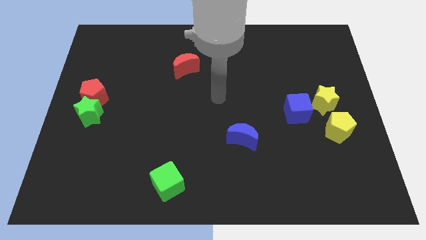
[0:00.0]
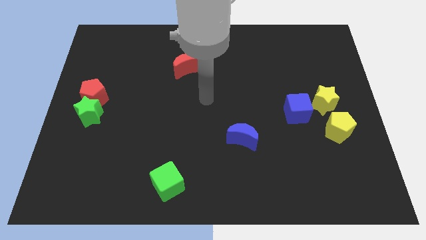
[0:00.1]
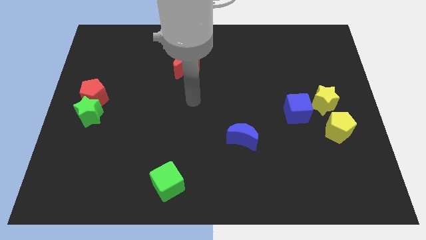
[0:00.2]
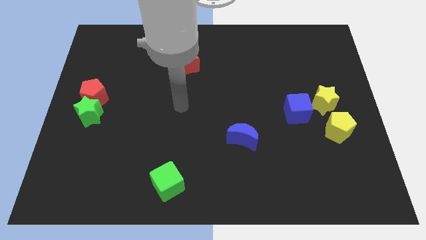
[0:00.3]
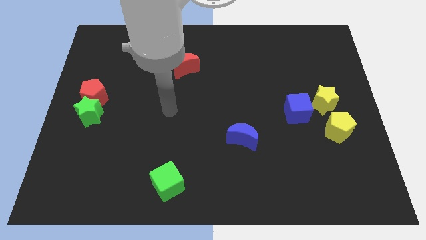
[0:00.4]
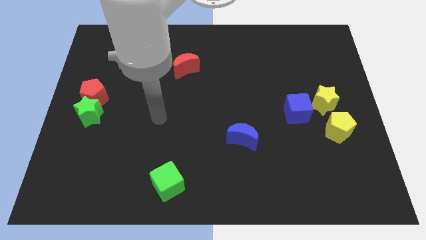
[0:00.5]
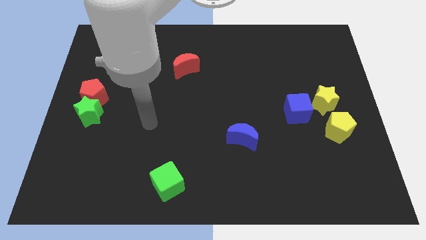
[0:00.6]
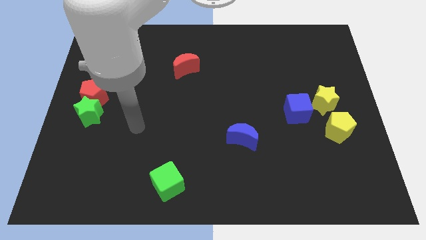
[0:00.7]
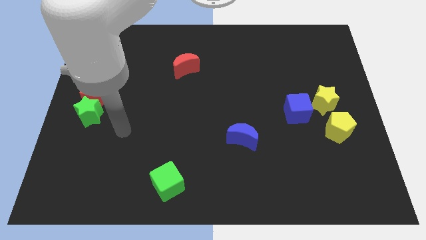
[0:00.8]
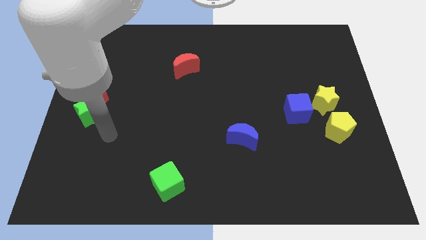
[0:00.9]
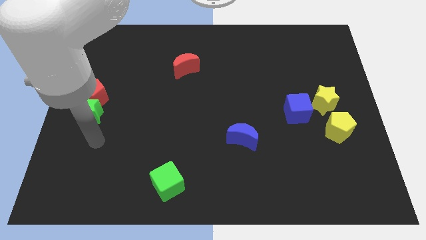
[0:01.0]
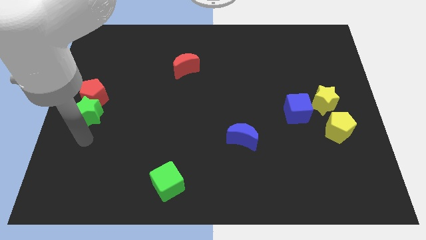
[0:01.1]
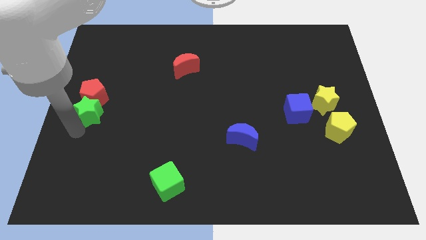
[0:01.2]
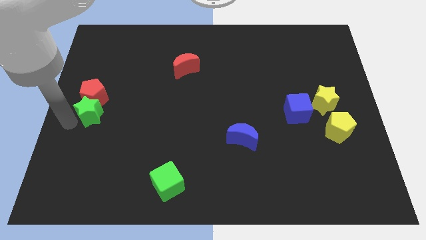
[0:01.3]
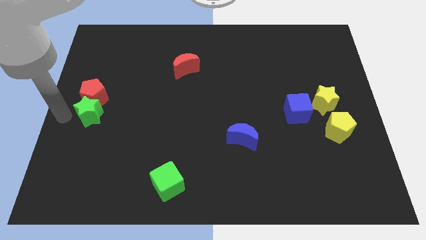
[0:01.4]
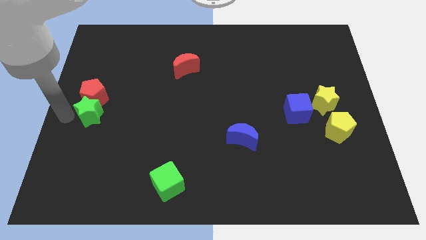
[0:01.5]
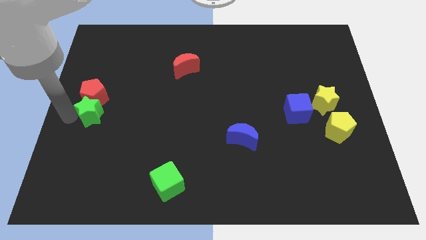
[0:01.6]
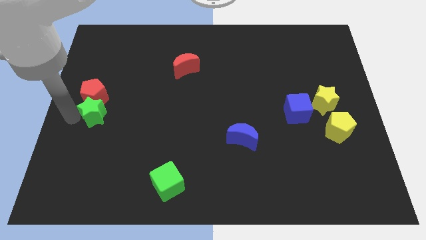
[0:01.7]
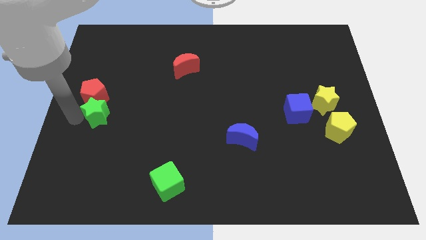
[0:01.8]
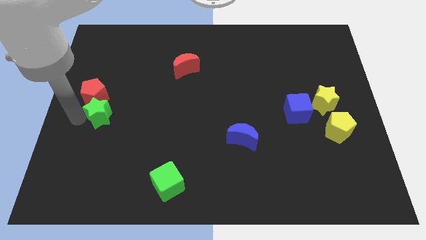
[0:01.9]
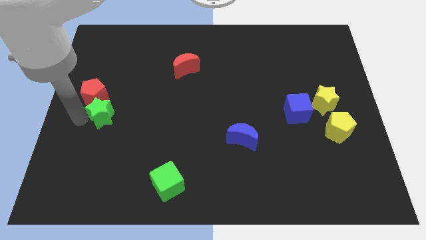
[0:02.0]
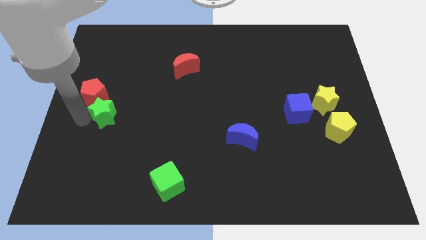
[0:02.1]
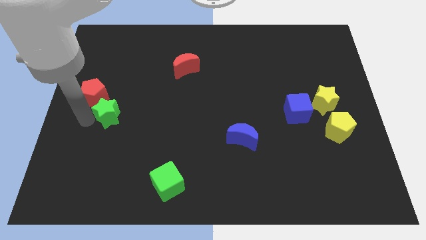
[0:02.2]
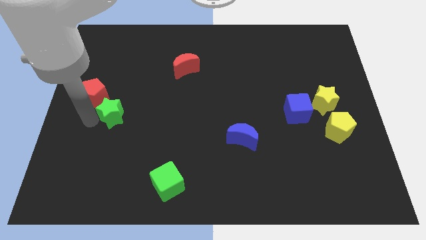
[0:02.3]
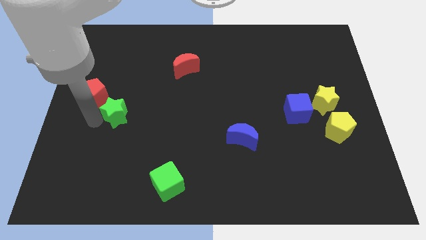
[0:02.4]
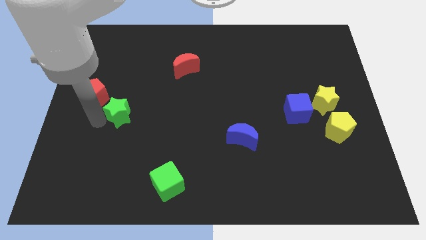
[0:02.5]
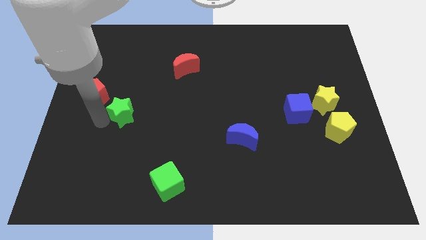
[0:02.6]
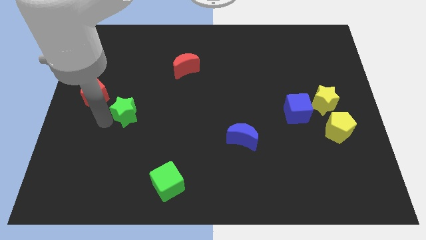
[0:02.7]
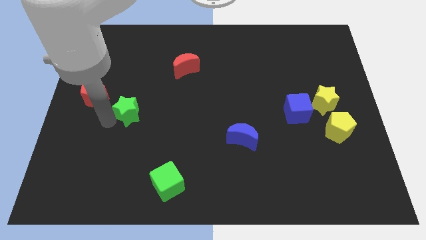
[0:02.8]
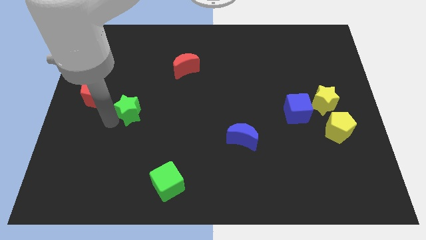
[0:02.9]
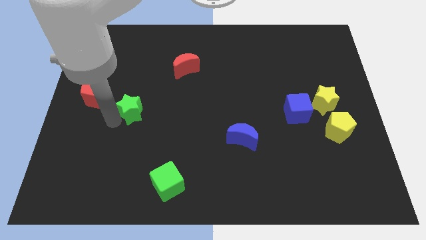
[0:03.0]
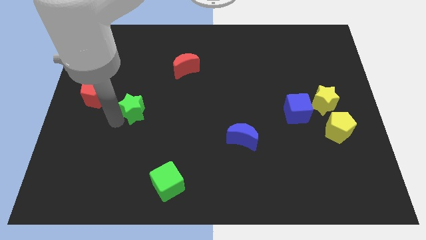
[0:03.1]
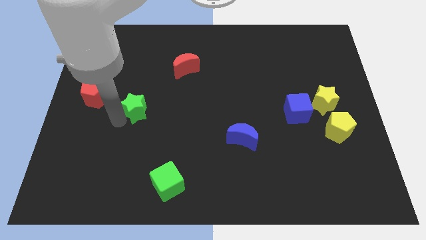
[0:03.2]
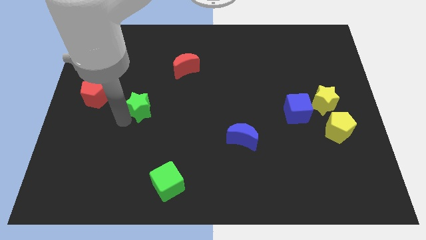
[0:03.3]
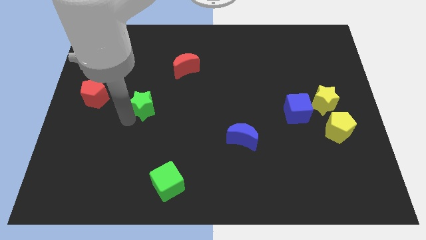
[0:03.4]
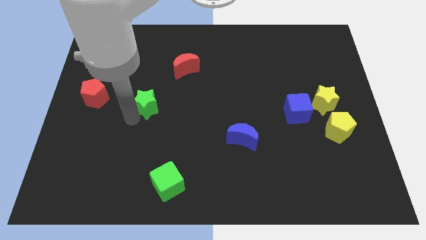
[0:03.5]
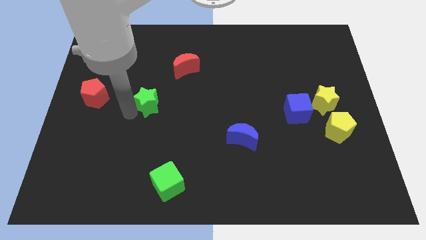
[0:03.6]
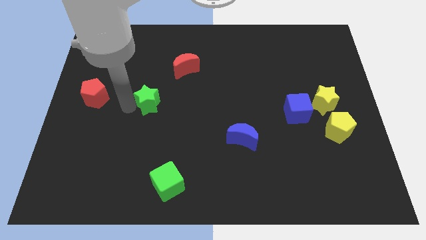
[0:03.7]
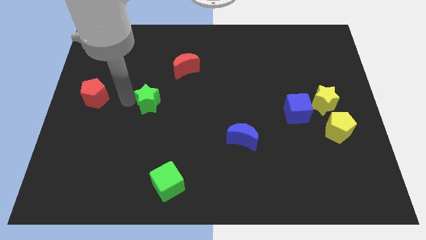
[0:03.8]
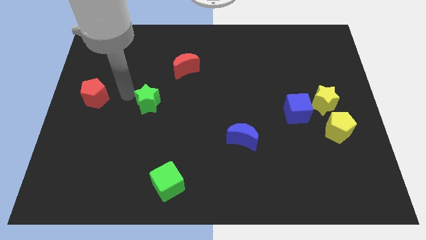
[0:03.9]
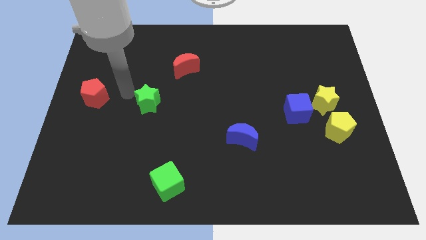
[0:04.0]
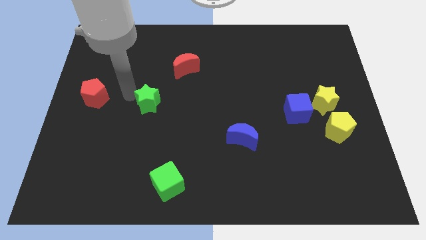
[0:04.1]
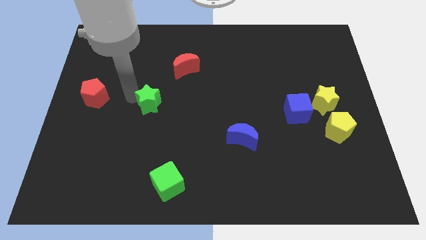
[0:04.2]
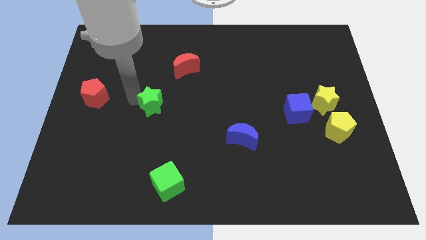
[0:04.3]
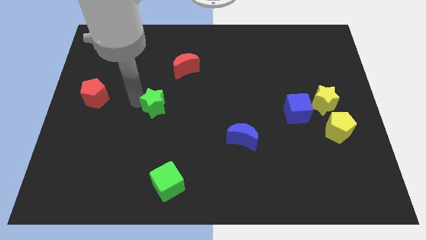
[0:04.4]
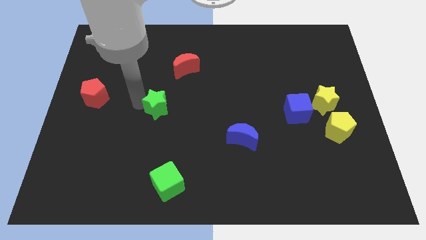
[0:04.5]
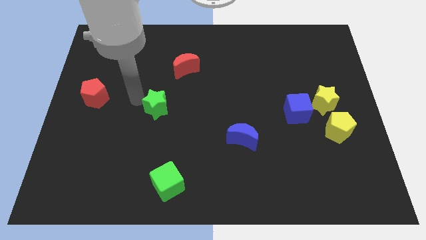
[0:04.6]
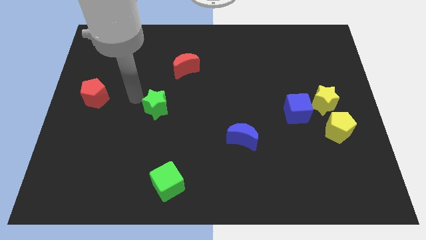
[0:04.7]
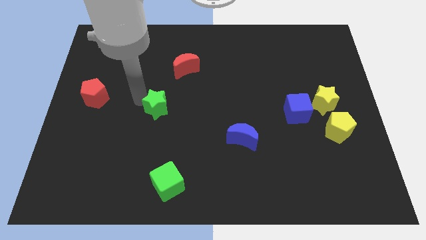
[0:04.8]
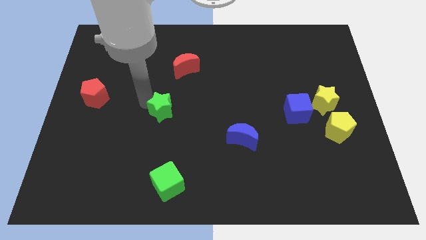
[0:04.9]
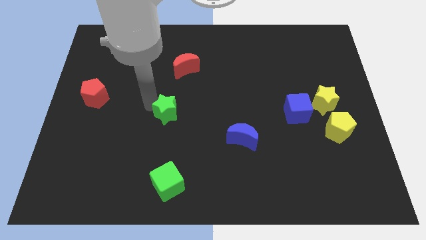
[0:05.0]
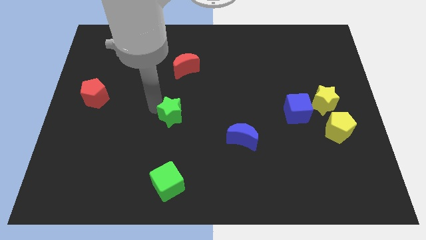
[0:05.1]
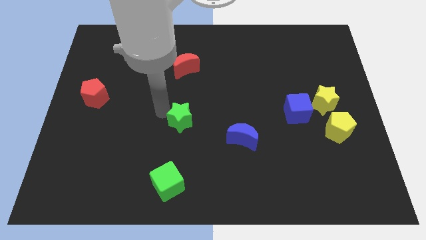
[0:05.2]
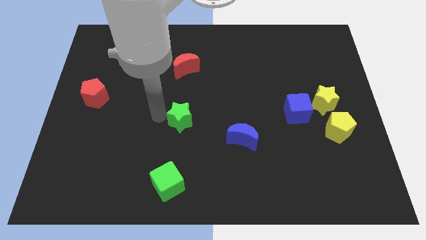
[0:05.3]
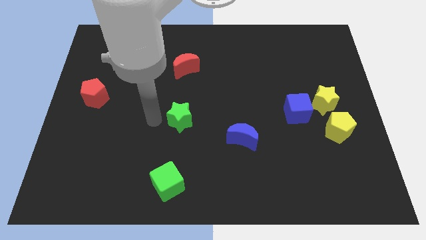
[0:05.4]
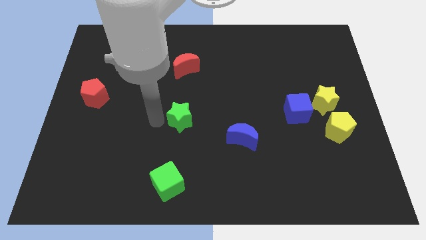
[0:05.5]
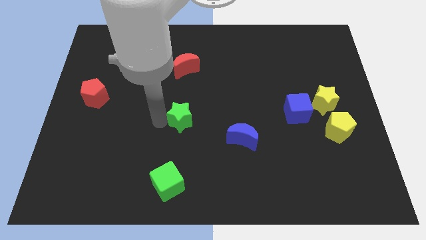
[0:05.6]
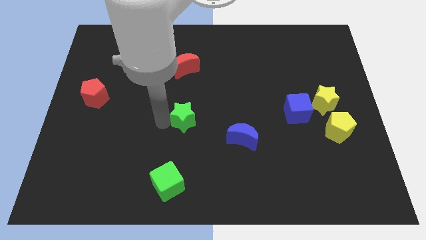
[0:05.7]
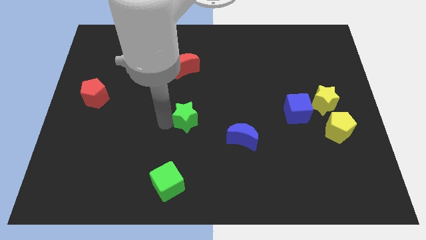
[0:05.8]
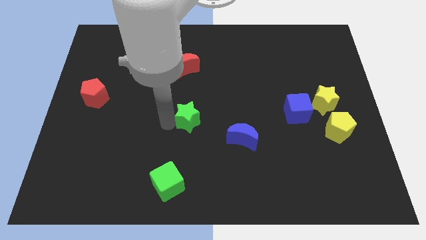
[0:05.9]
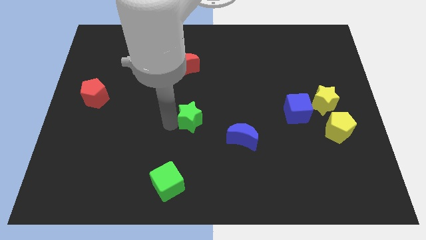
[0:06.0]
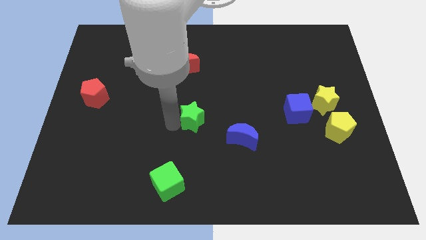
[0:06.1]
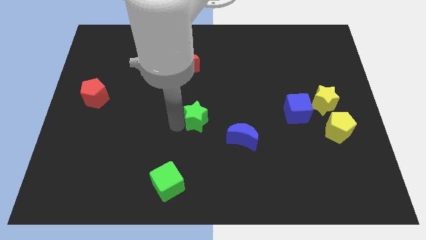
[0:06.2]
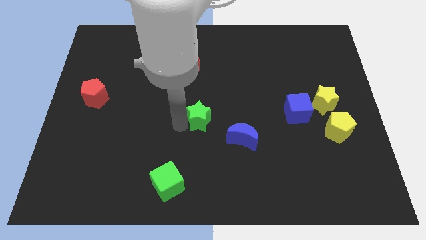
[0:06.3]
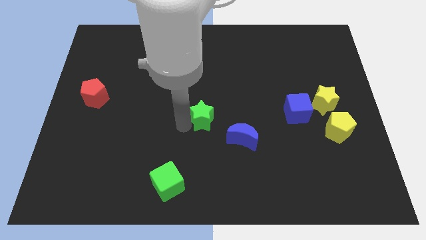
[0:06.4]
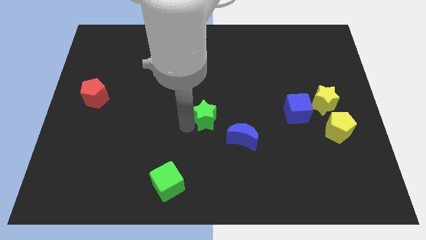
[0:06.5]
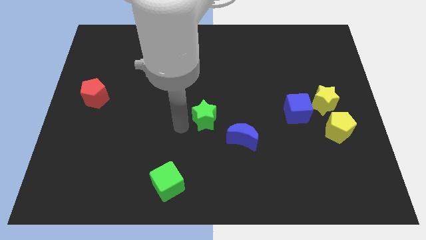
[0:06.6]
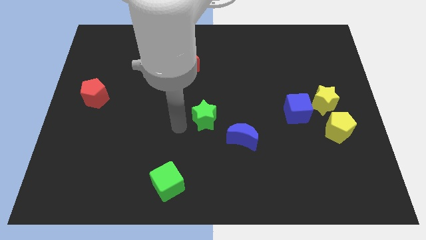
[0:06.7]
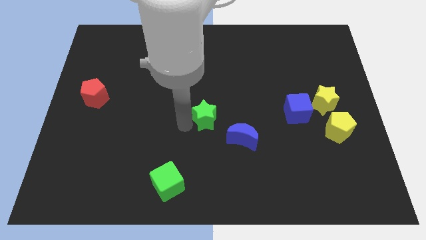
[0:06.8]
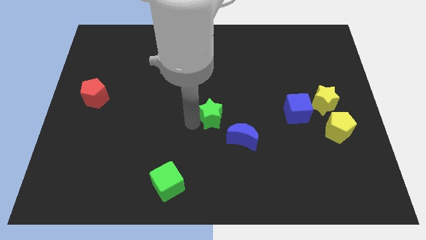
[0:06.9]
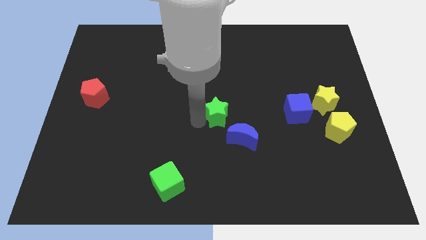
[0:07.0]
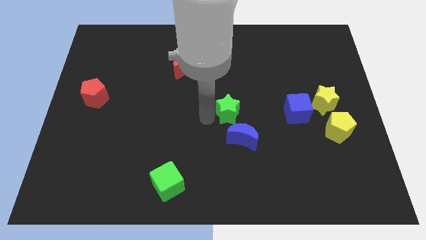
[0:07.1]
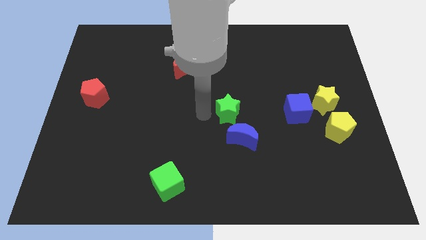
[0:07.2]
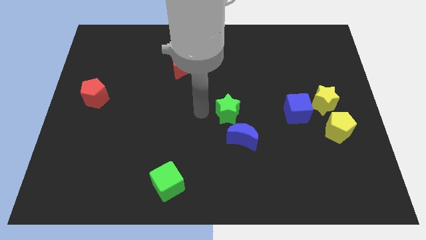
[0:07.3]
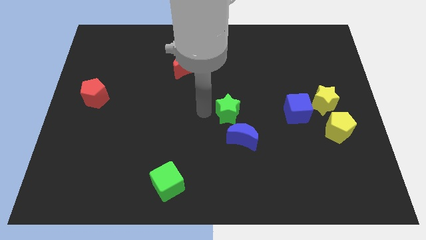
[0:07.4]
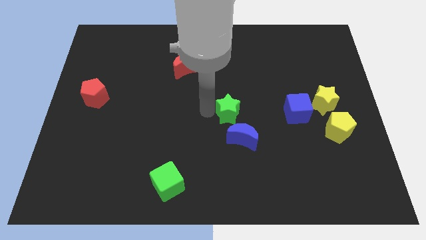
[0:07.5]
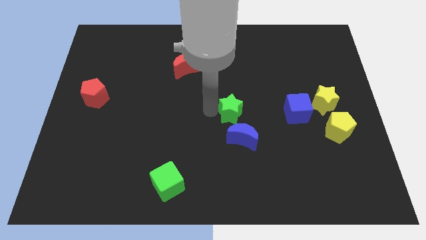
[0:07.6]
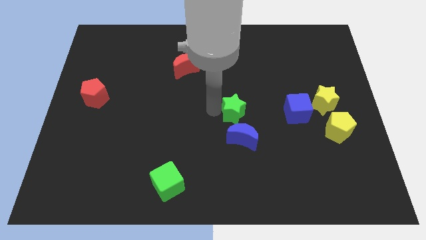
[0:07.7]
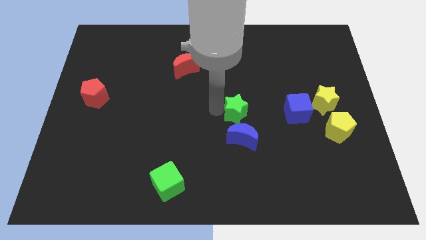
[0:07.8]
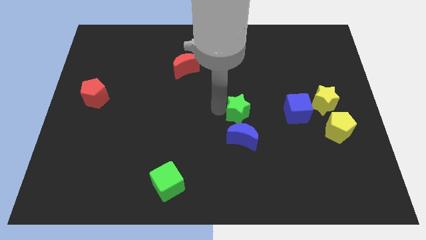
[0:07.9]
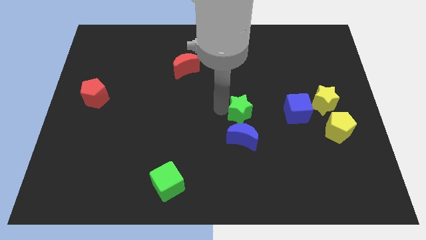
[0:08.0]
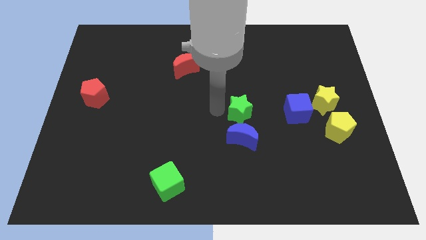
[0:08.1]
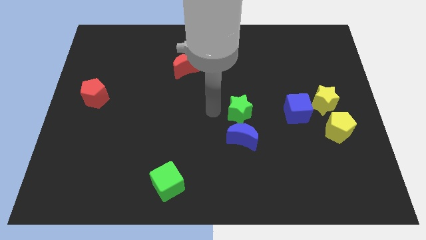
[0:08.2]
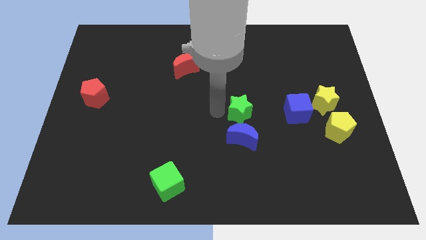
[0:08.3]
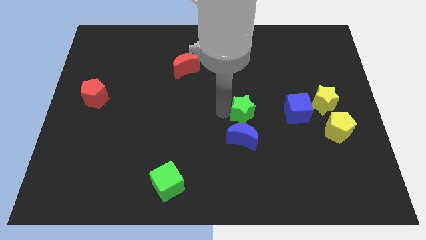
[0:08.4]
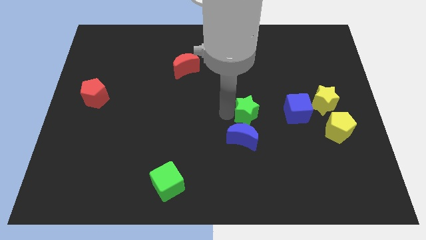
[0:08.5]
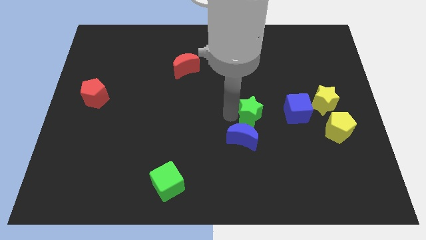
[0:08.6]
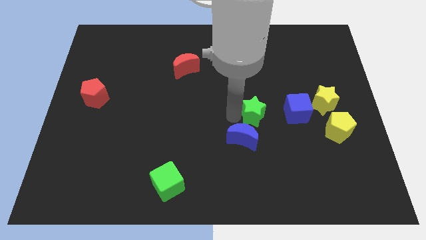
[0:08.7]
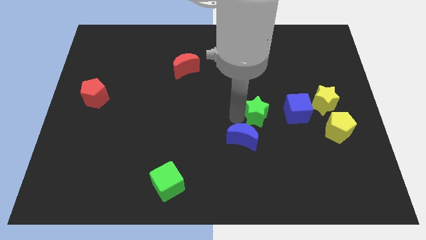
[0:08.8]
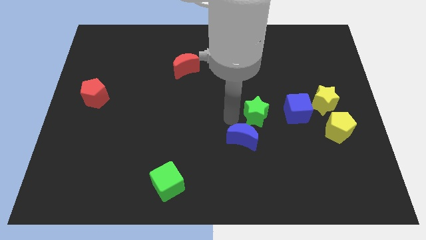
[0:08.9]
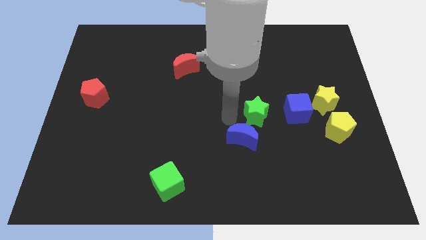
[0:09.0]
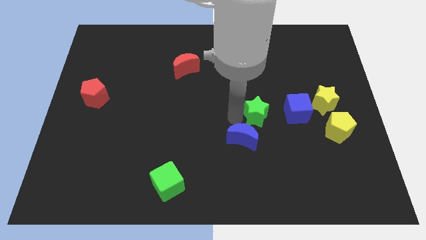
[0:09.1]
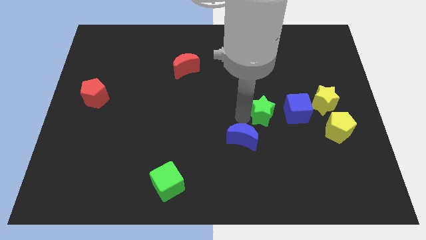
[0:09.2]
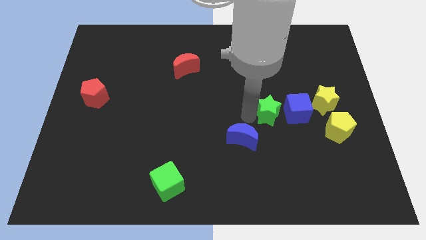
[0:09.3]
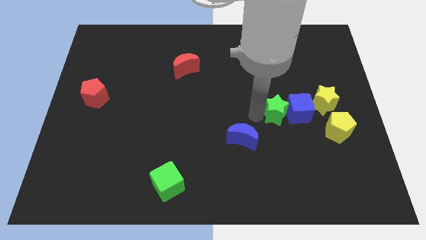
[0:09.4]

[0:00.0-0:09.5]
slide the green star next to the blue cube
